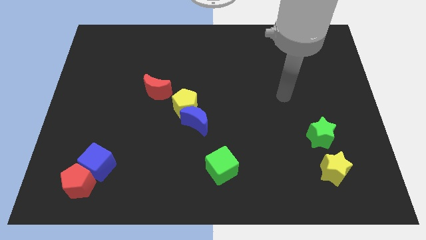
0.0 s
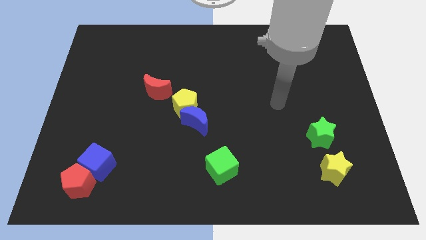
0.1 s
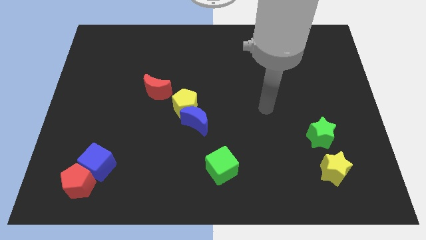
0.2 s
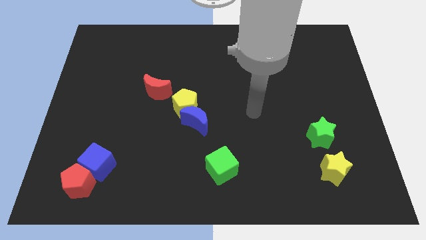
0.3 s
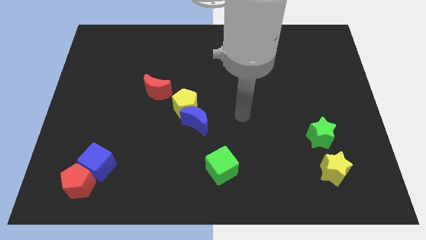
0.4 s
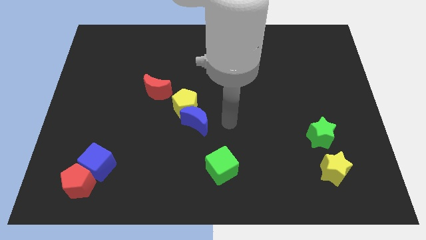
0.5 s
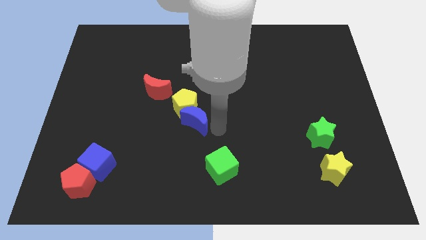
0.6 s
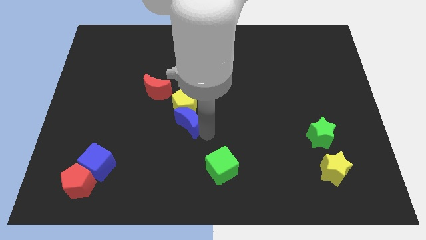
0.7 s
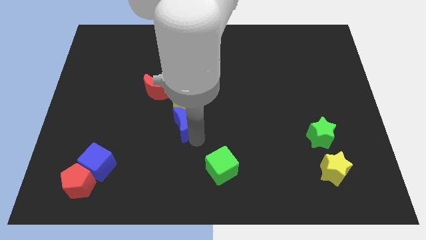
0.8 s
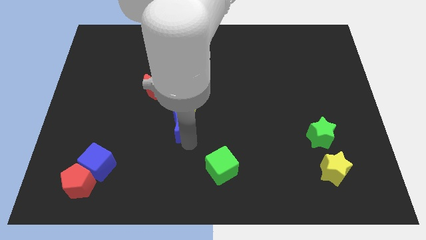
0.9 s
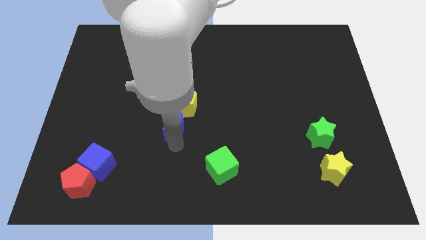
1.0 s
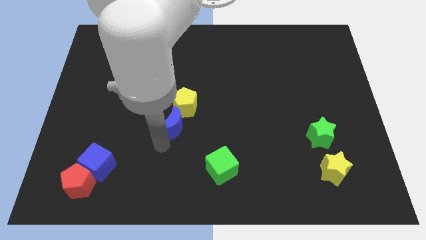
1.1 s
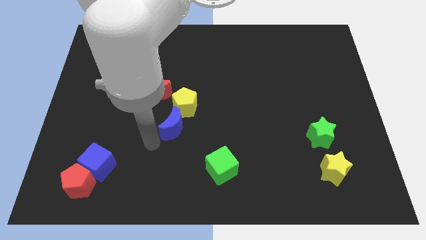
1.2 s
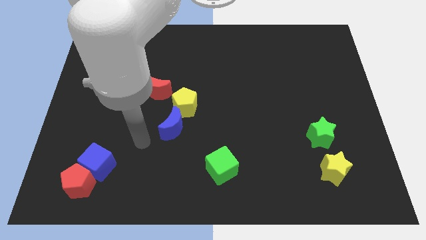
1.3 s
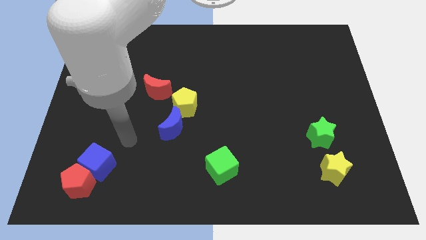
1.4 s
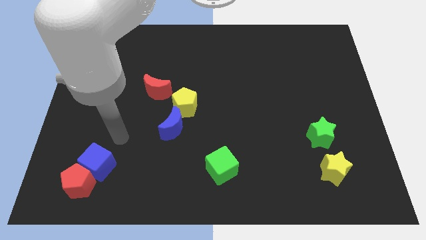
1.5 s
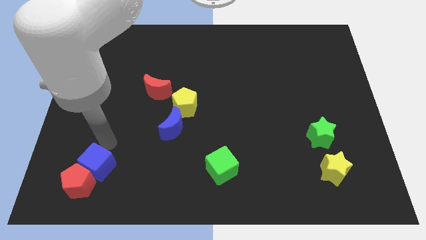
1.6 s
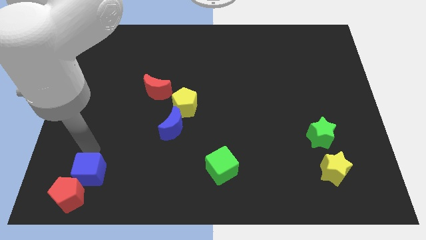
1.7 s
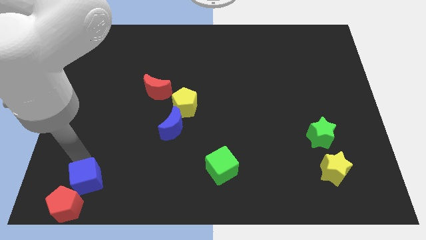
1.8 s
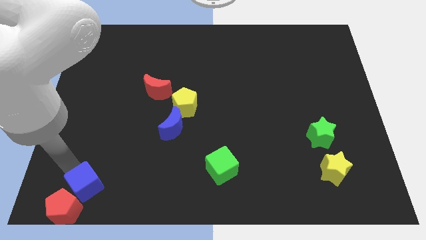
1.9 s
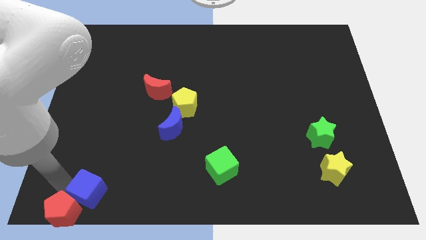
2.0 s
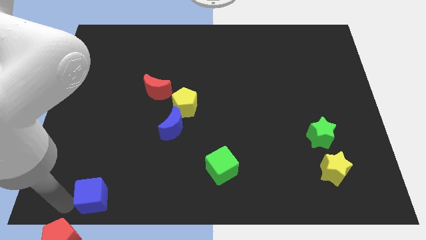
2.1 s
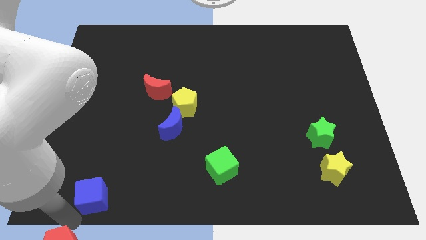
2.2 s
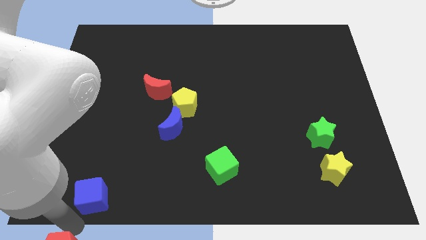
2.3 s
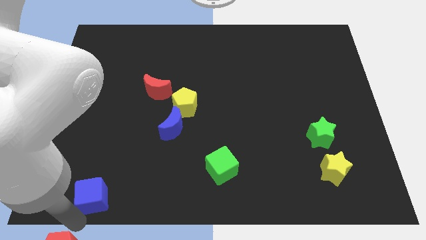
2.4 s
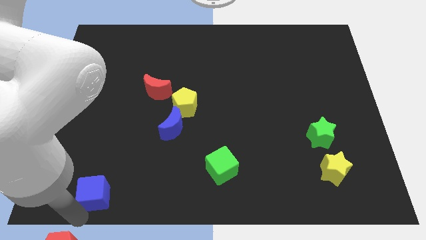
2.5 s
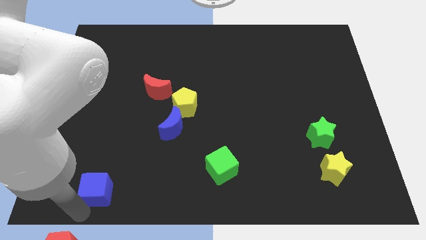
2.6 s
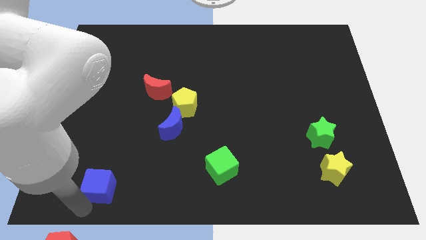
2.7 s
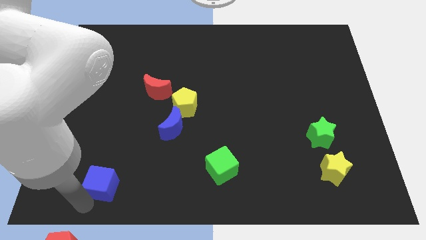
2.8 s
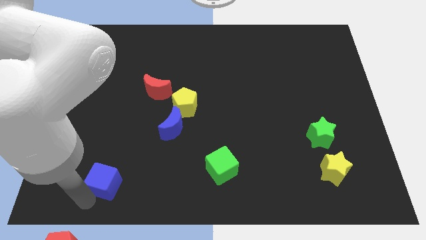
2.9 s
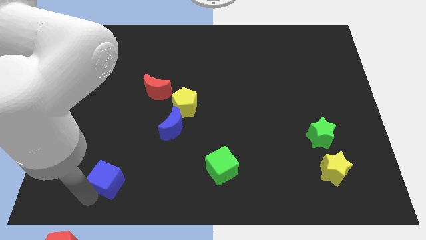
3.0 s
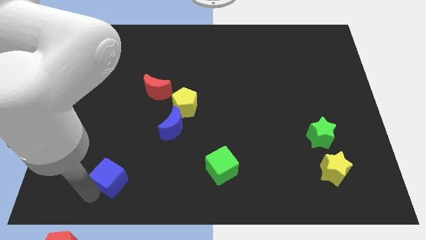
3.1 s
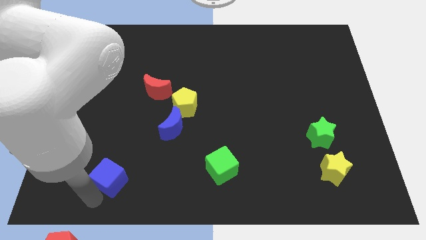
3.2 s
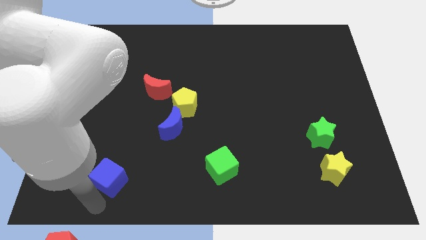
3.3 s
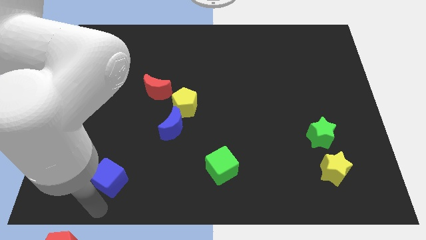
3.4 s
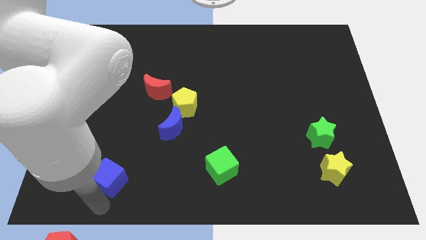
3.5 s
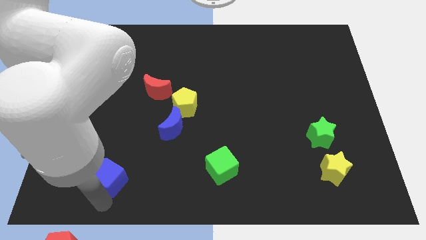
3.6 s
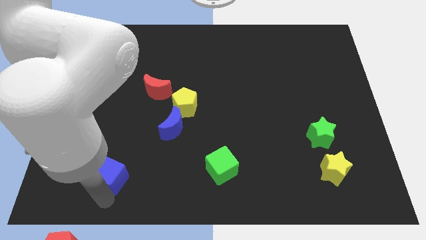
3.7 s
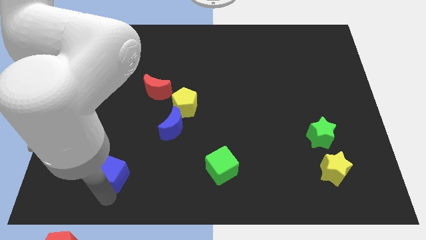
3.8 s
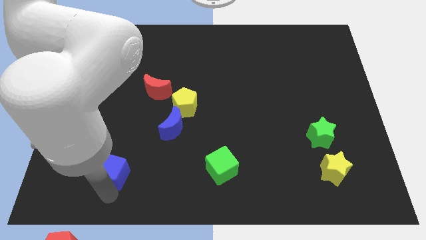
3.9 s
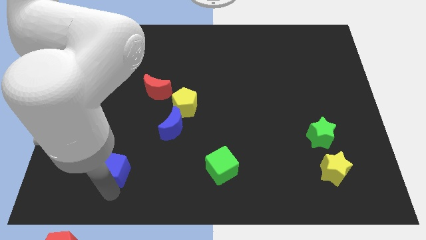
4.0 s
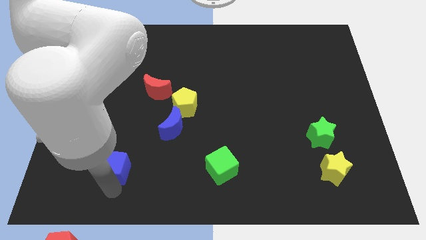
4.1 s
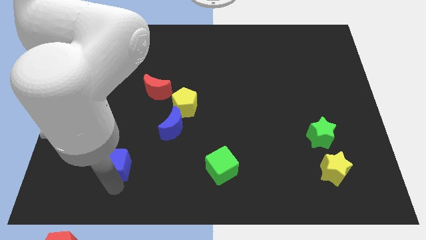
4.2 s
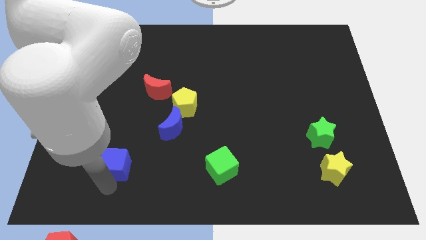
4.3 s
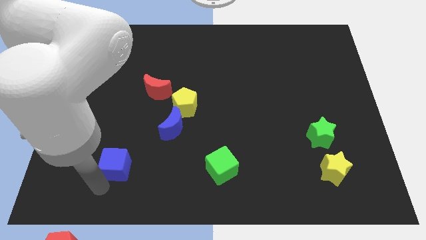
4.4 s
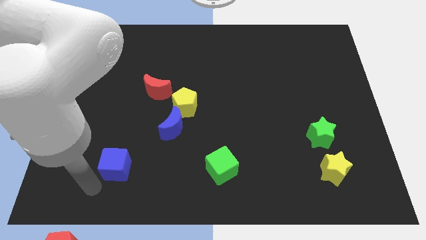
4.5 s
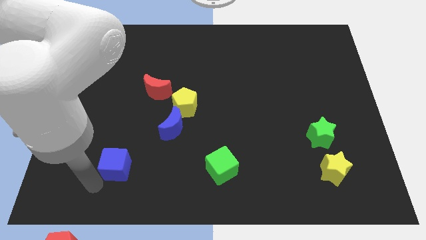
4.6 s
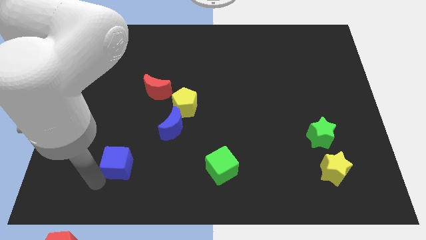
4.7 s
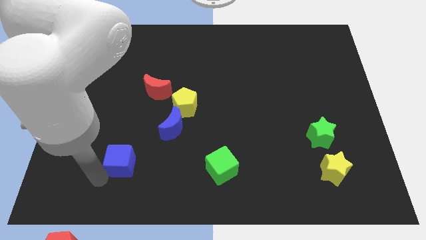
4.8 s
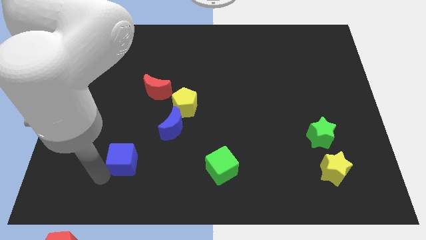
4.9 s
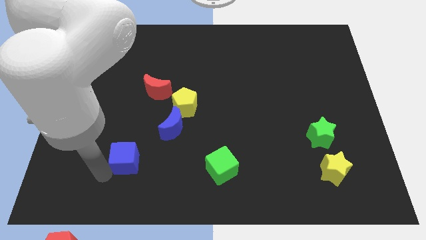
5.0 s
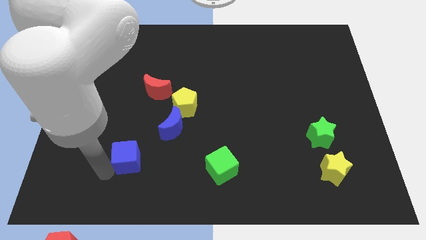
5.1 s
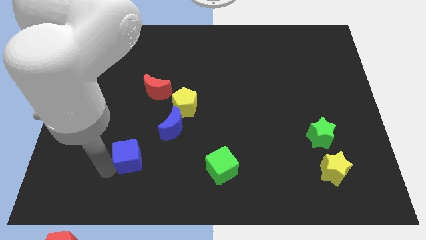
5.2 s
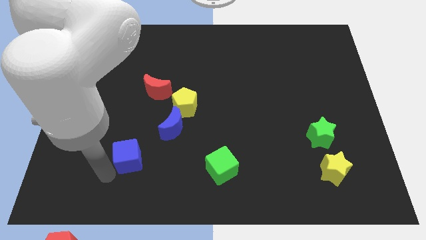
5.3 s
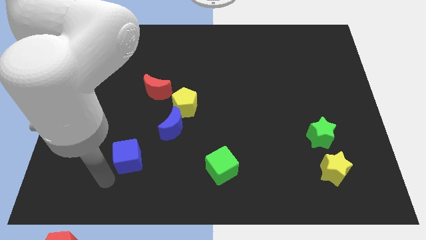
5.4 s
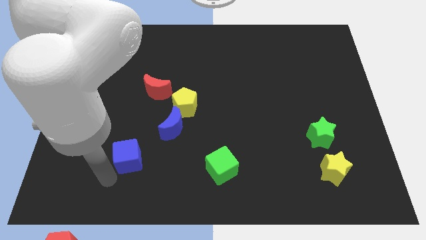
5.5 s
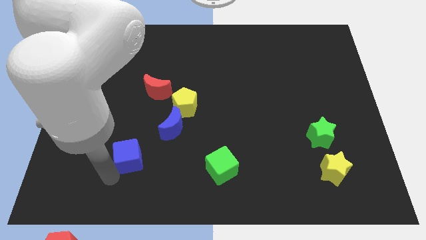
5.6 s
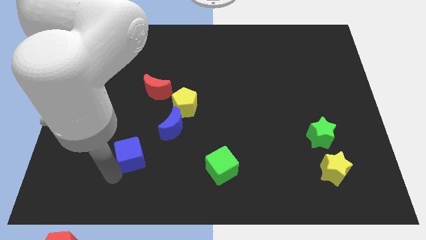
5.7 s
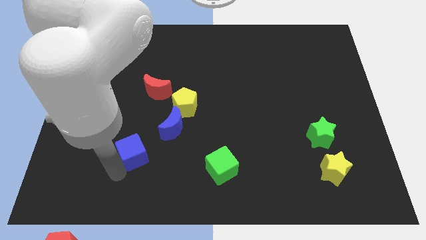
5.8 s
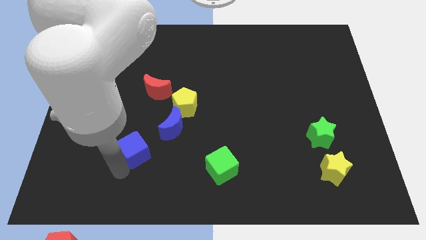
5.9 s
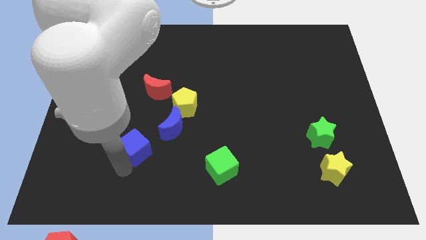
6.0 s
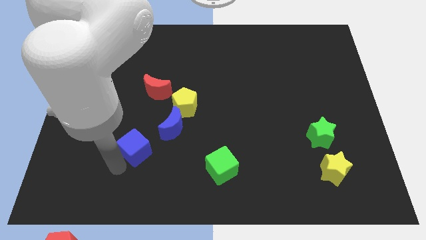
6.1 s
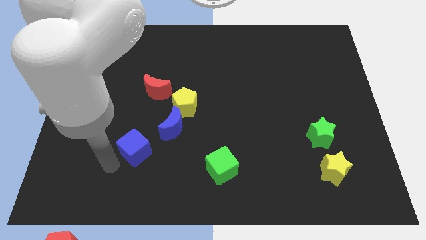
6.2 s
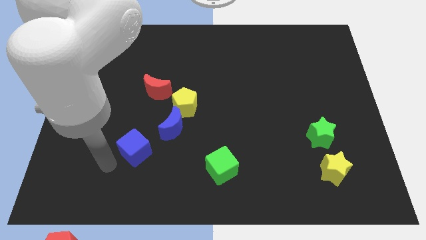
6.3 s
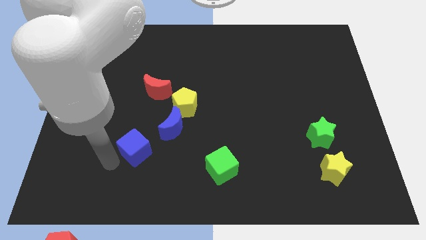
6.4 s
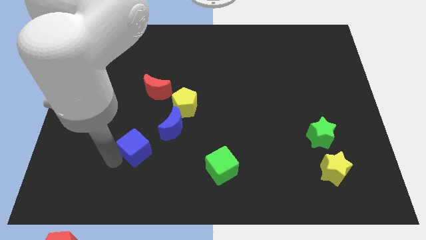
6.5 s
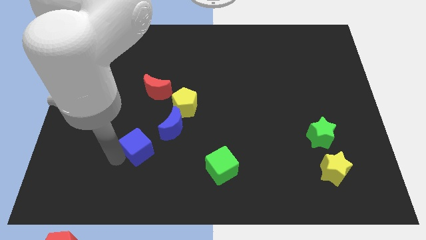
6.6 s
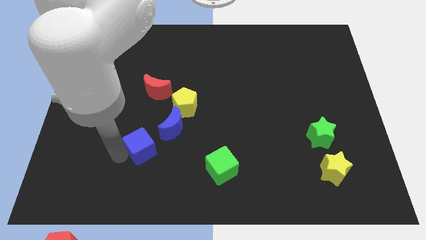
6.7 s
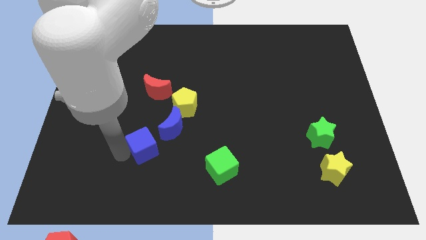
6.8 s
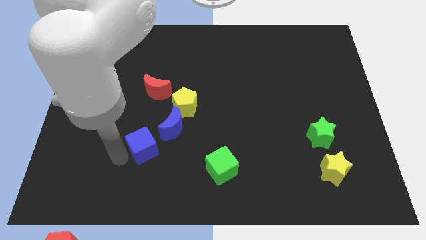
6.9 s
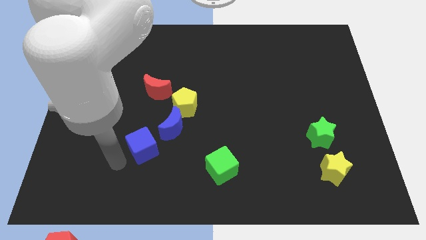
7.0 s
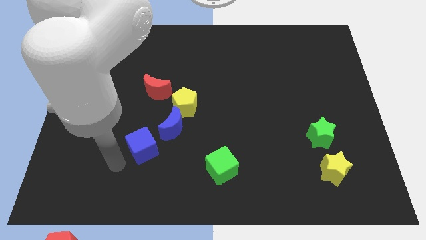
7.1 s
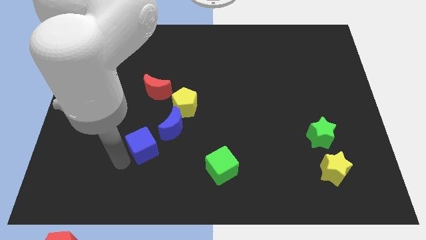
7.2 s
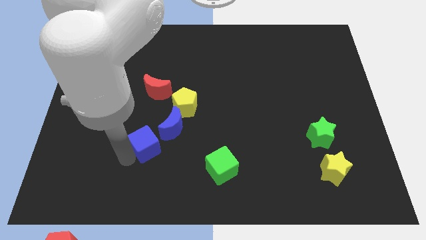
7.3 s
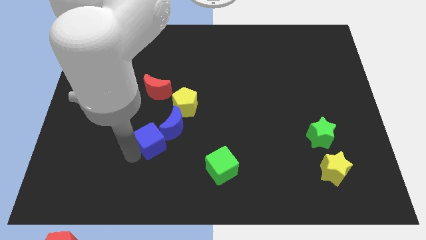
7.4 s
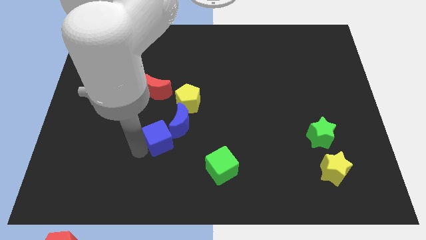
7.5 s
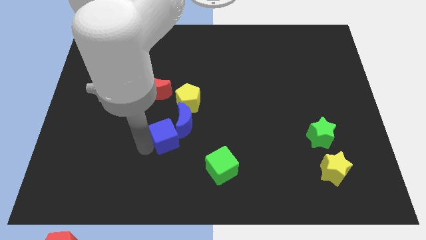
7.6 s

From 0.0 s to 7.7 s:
push the blue cube close to the blue moon
